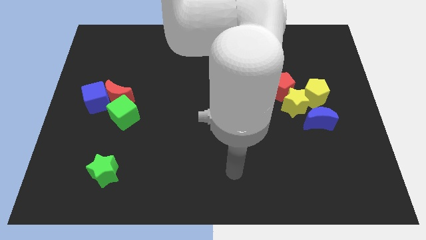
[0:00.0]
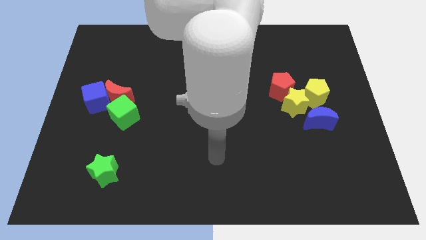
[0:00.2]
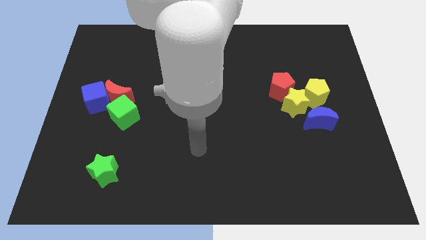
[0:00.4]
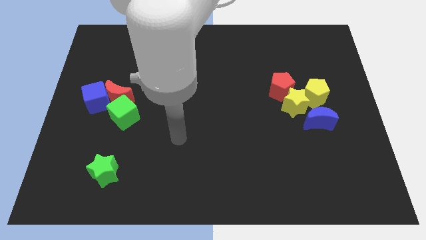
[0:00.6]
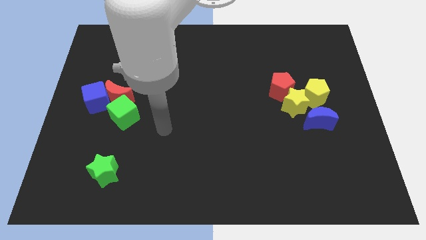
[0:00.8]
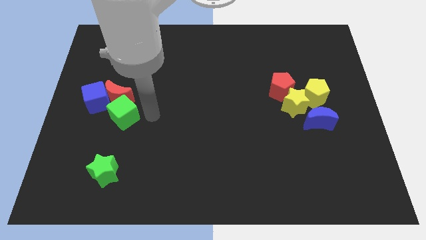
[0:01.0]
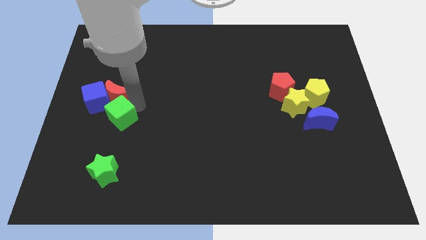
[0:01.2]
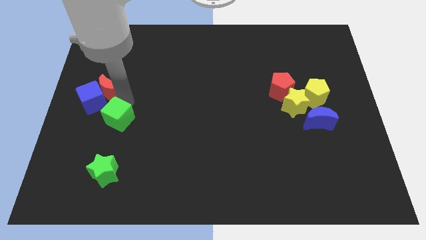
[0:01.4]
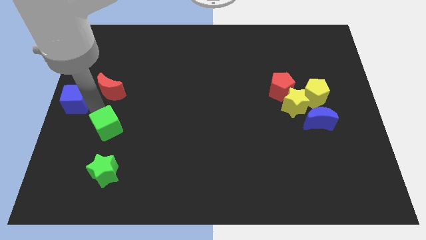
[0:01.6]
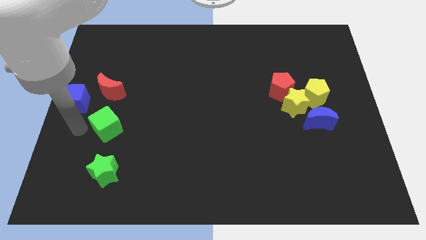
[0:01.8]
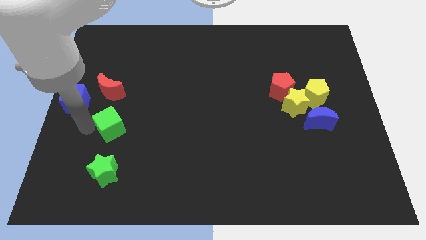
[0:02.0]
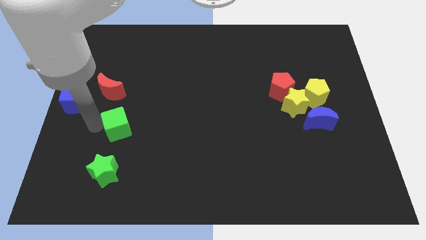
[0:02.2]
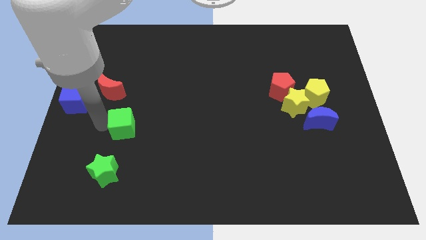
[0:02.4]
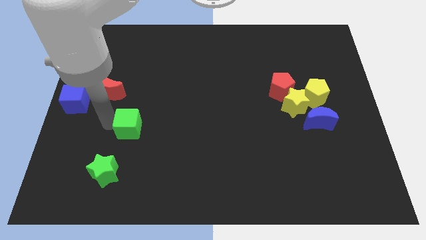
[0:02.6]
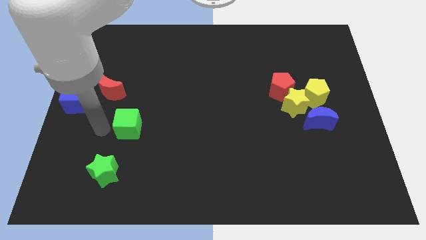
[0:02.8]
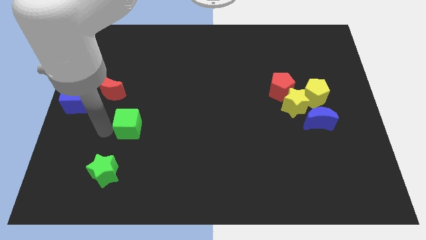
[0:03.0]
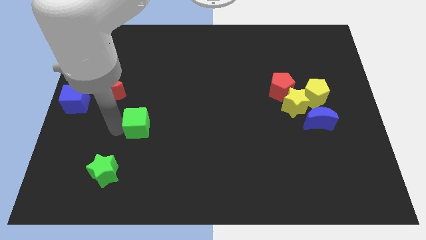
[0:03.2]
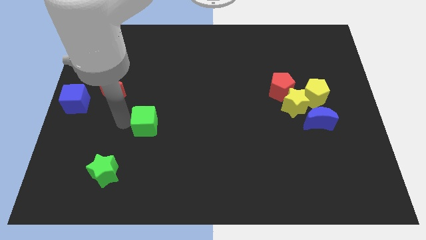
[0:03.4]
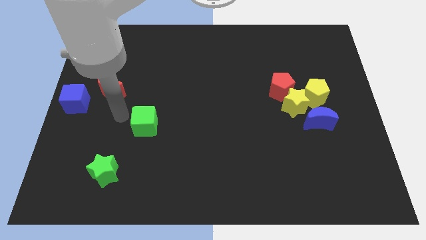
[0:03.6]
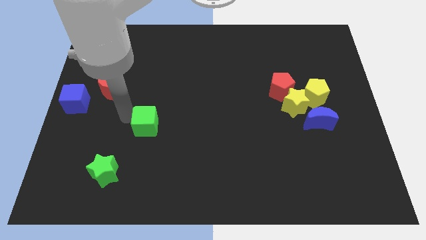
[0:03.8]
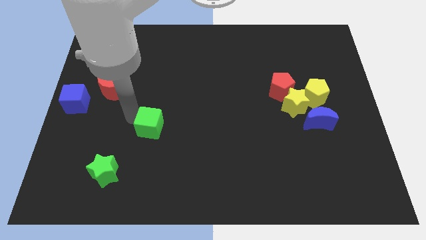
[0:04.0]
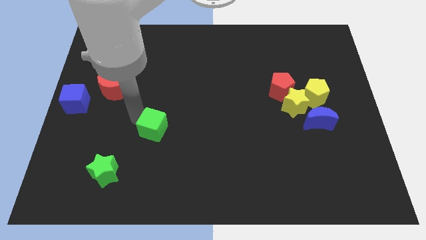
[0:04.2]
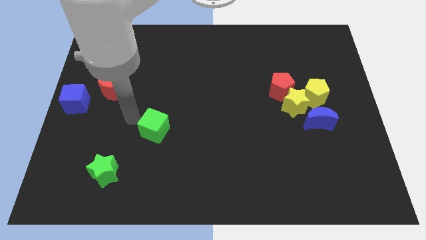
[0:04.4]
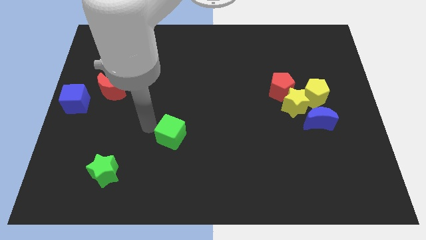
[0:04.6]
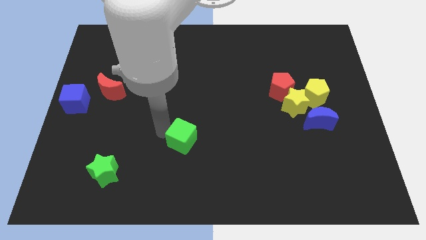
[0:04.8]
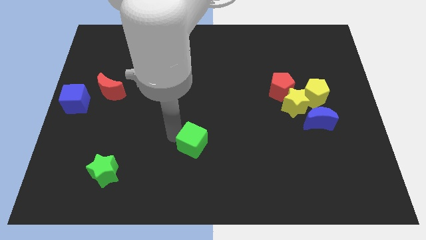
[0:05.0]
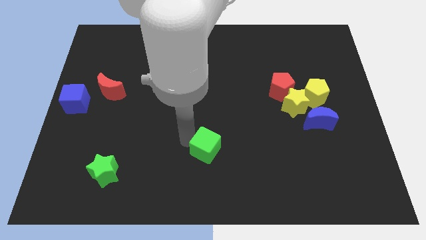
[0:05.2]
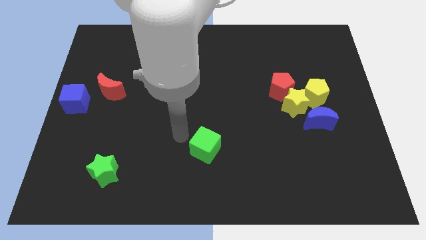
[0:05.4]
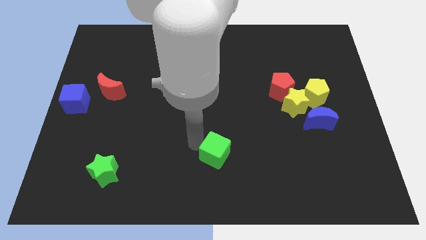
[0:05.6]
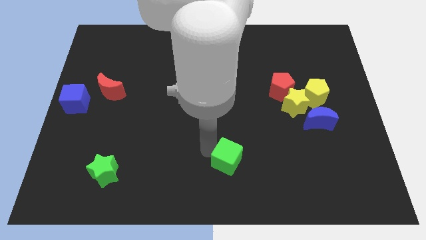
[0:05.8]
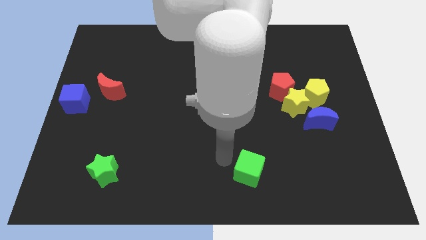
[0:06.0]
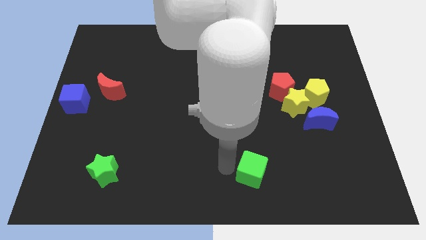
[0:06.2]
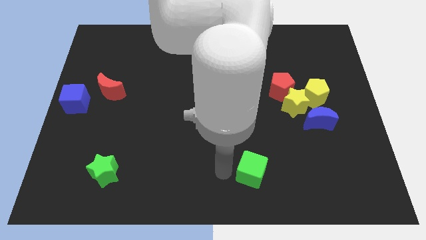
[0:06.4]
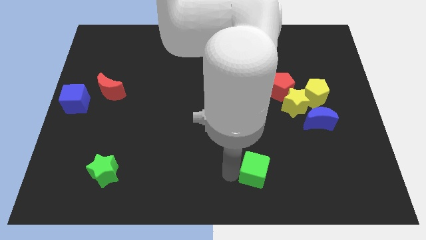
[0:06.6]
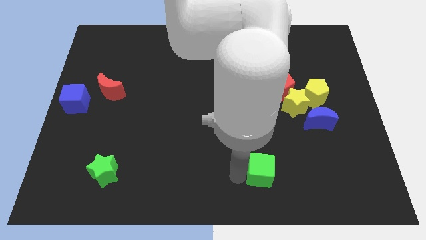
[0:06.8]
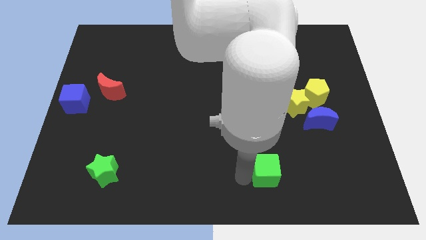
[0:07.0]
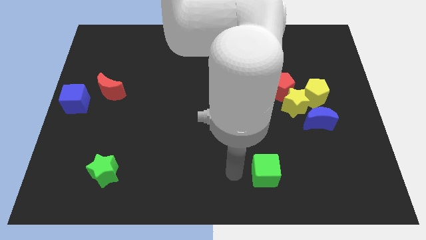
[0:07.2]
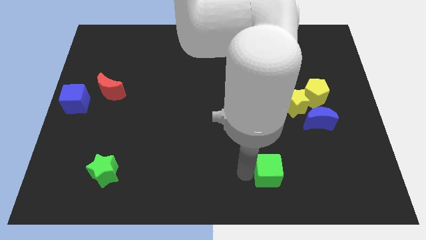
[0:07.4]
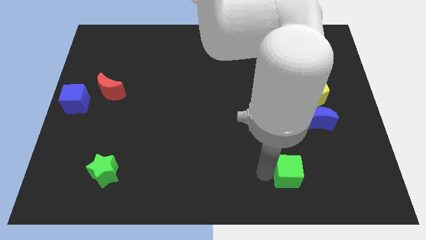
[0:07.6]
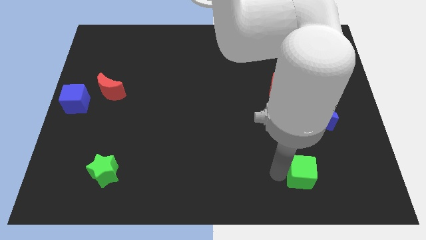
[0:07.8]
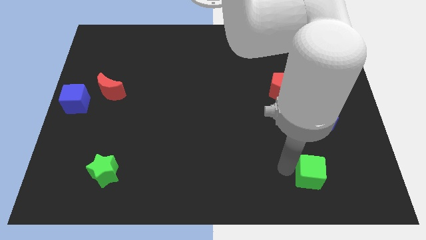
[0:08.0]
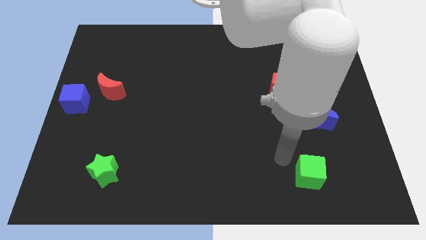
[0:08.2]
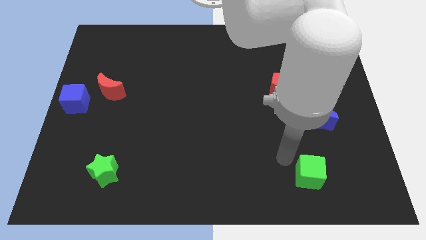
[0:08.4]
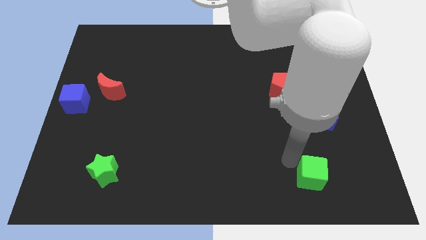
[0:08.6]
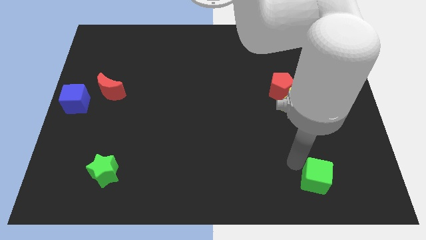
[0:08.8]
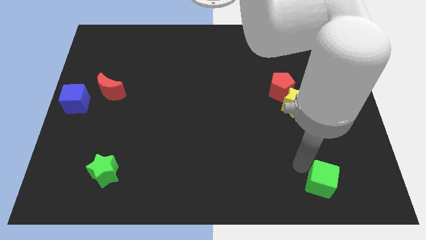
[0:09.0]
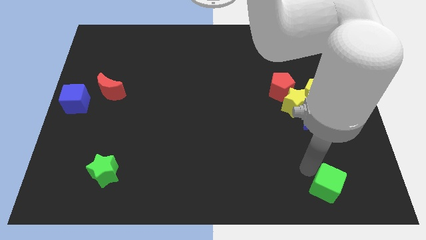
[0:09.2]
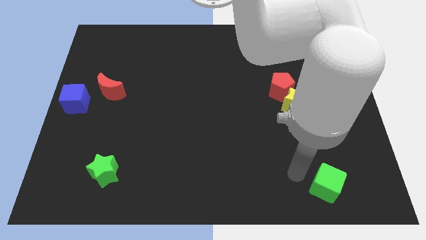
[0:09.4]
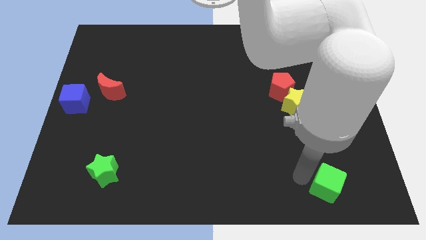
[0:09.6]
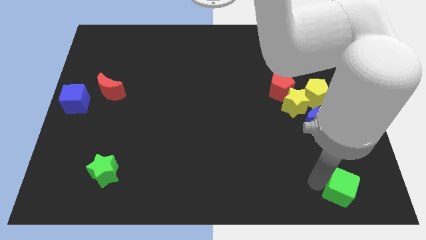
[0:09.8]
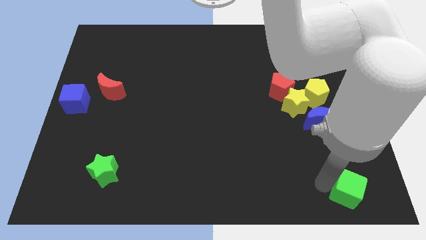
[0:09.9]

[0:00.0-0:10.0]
slide the green cube to the bottom right

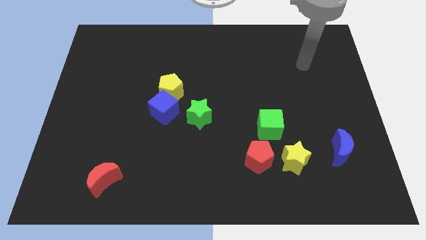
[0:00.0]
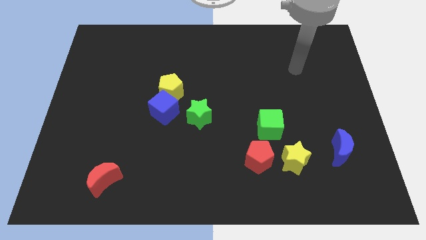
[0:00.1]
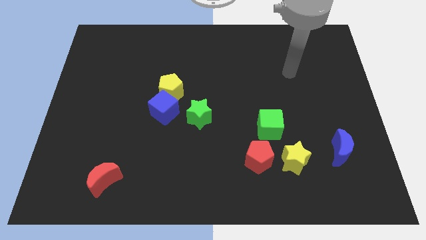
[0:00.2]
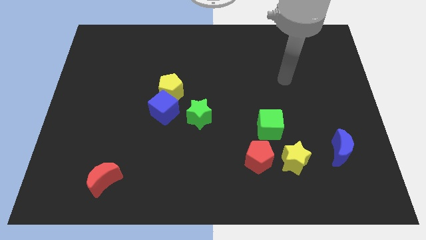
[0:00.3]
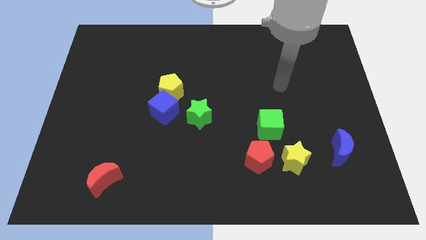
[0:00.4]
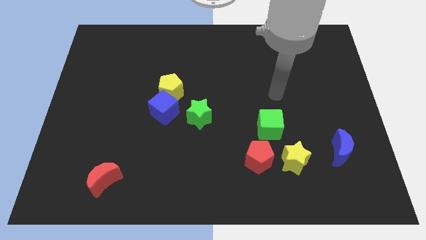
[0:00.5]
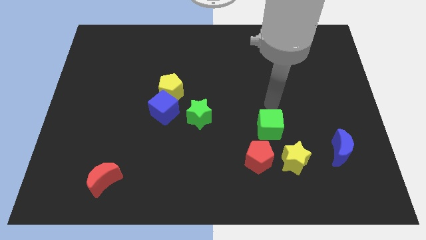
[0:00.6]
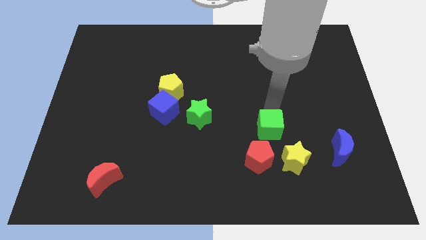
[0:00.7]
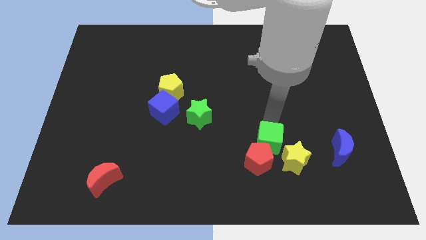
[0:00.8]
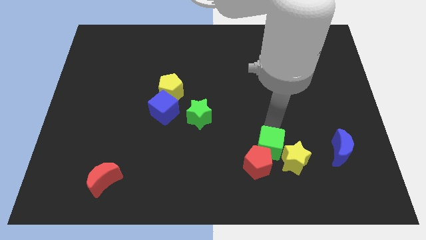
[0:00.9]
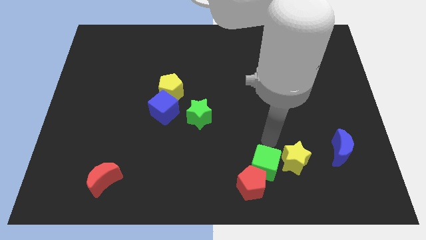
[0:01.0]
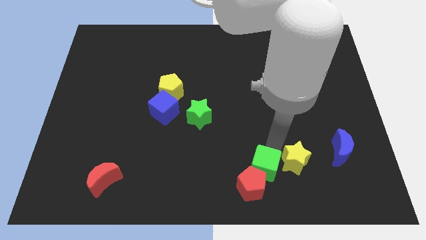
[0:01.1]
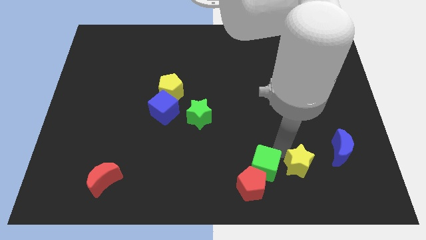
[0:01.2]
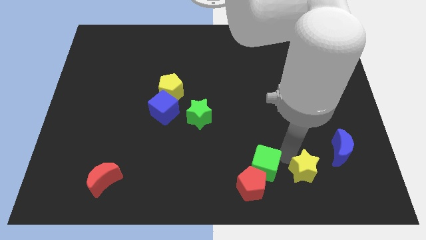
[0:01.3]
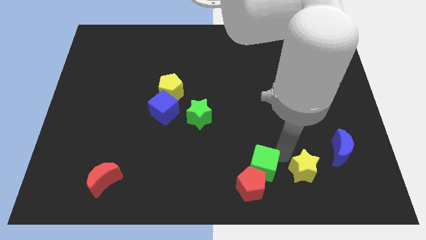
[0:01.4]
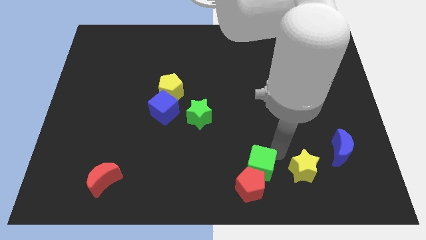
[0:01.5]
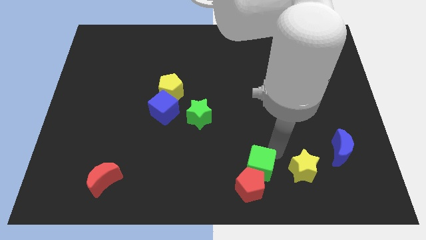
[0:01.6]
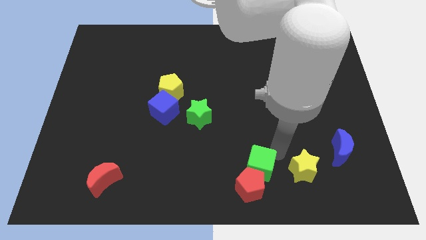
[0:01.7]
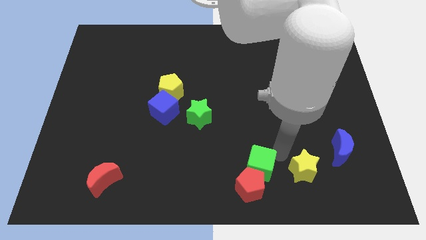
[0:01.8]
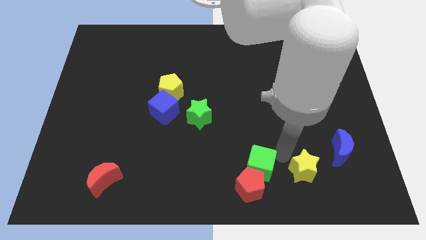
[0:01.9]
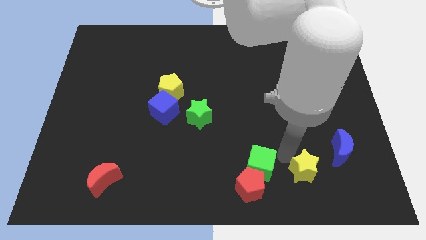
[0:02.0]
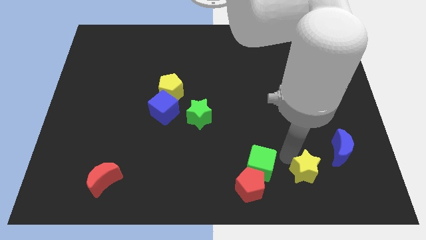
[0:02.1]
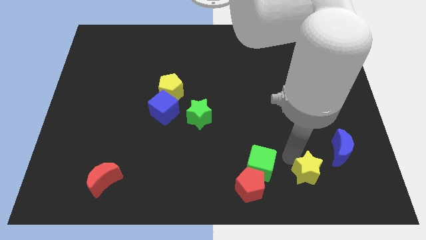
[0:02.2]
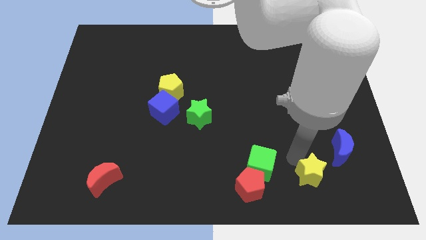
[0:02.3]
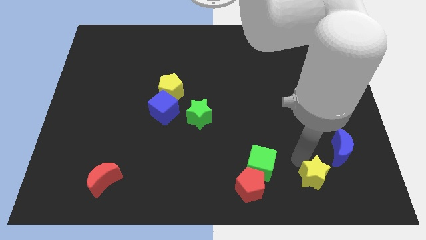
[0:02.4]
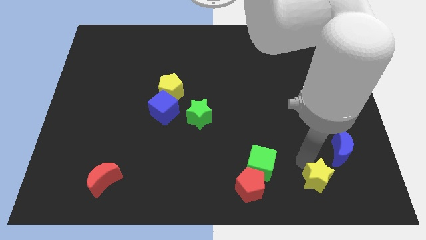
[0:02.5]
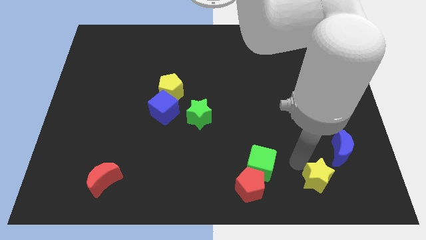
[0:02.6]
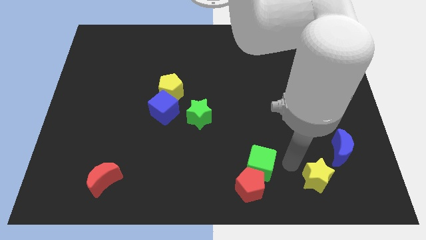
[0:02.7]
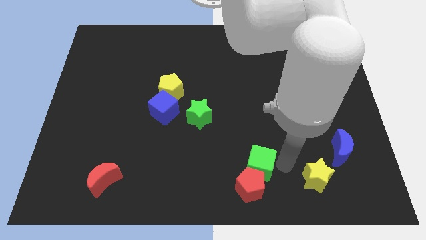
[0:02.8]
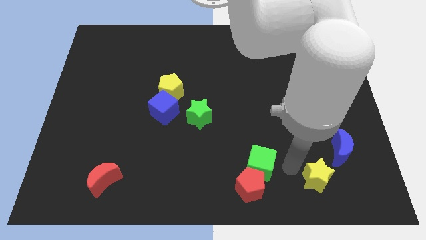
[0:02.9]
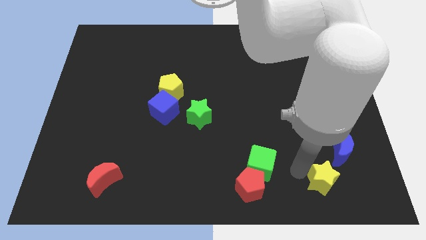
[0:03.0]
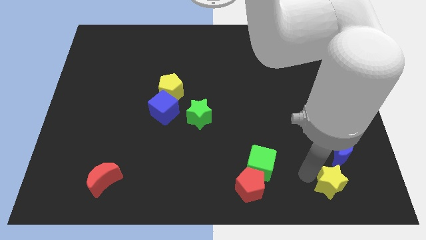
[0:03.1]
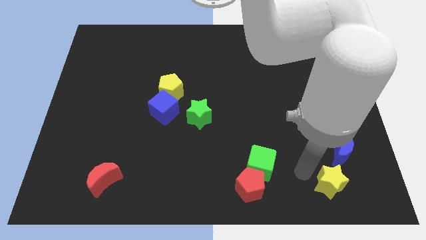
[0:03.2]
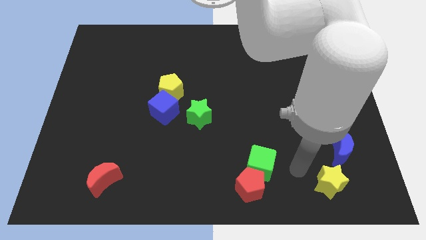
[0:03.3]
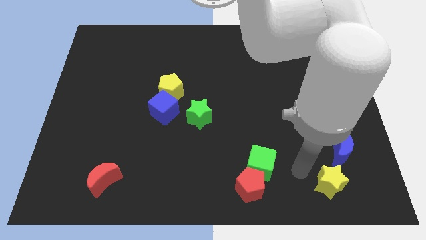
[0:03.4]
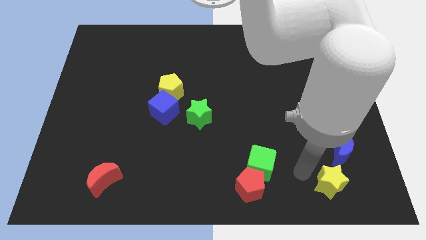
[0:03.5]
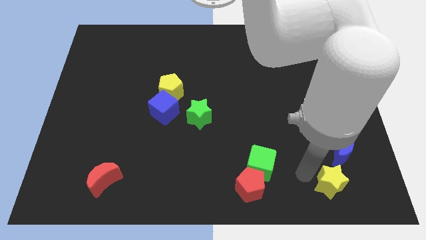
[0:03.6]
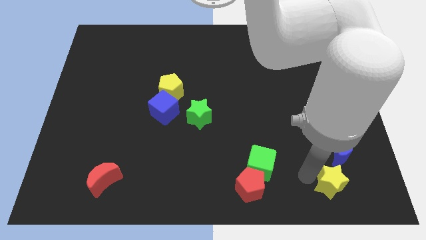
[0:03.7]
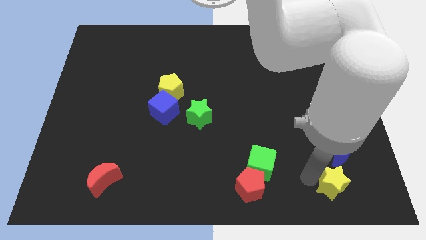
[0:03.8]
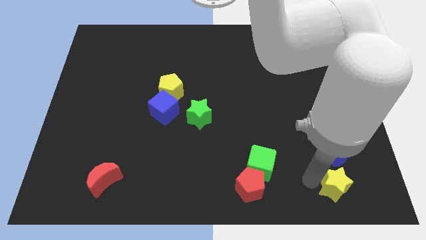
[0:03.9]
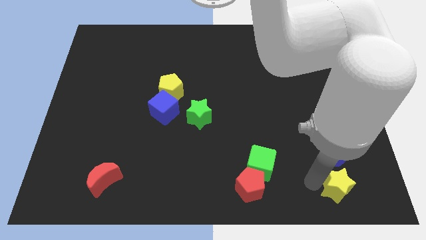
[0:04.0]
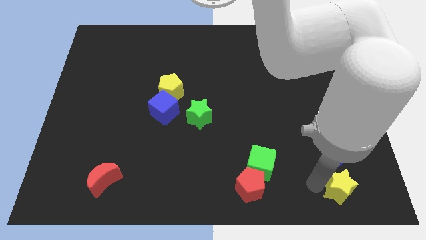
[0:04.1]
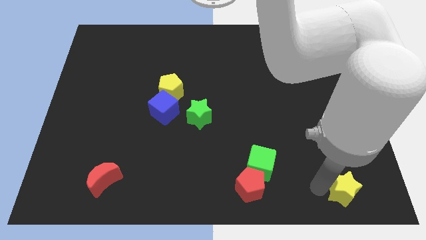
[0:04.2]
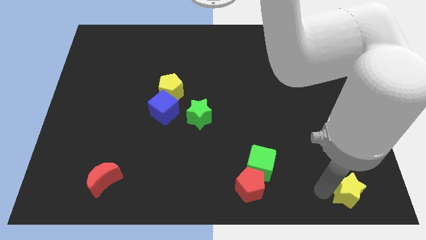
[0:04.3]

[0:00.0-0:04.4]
put the yellow star to the bottom right
